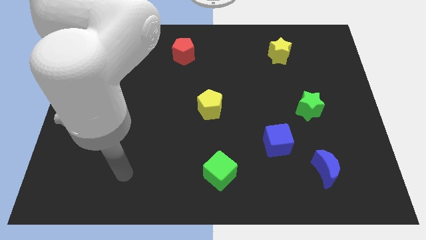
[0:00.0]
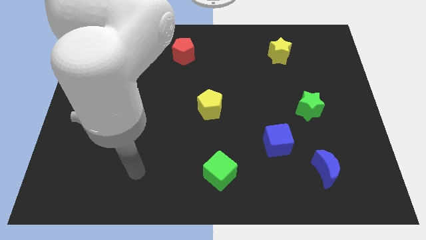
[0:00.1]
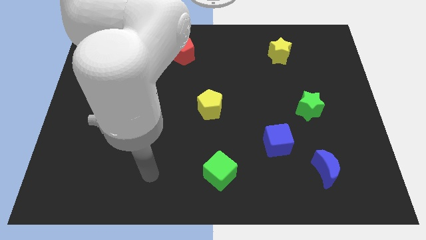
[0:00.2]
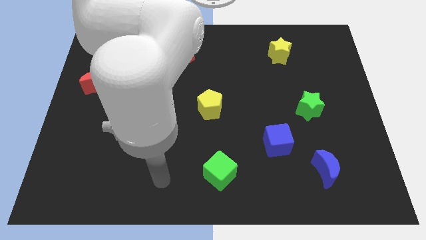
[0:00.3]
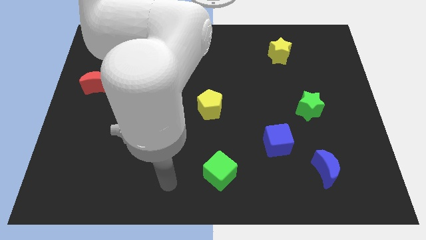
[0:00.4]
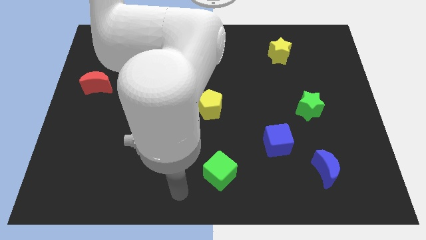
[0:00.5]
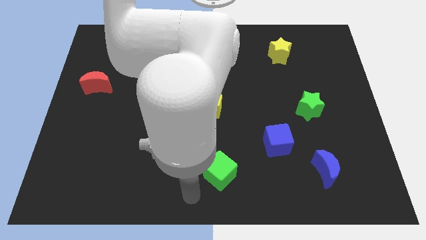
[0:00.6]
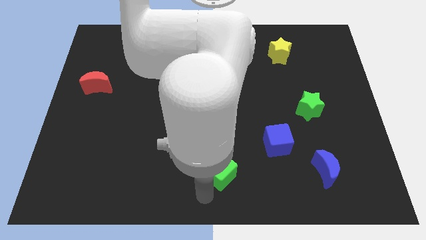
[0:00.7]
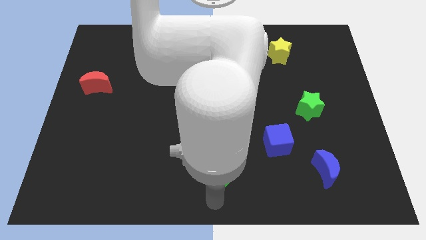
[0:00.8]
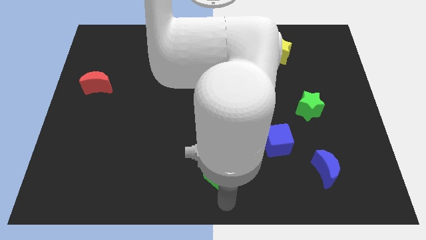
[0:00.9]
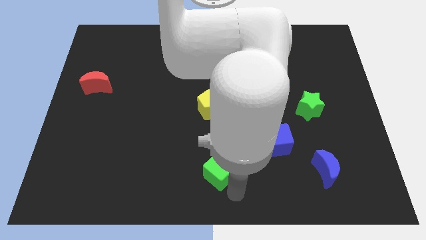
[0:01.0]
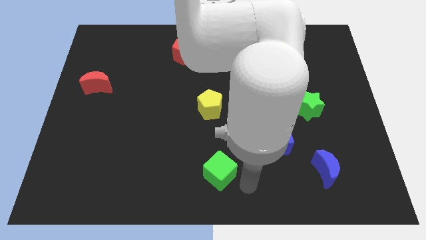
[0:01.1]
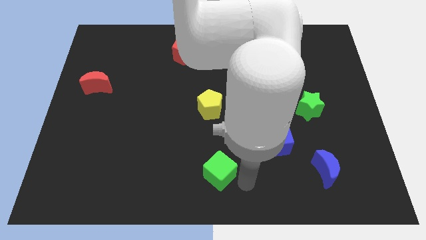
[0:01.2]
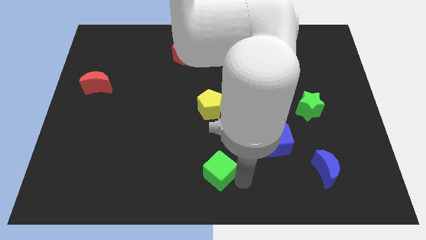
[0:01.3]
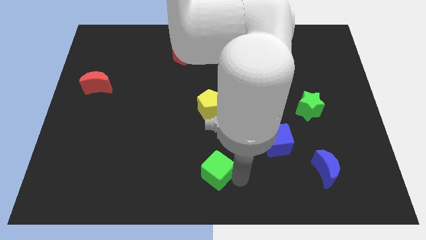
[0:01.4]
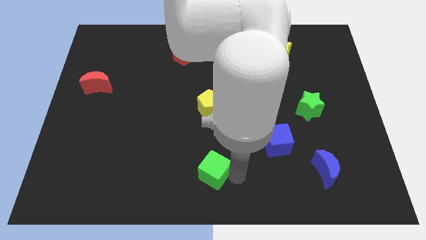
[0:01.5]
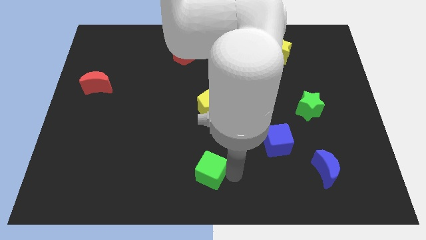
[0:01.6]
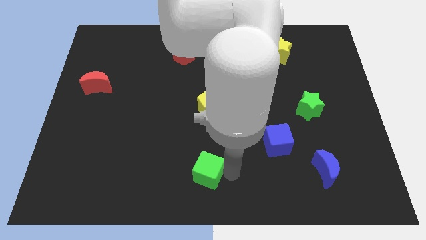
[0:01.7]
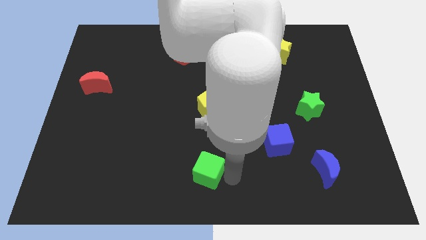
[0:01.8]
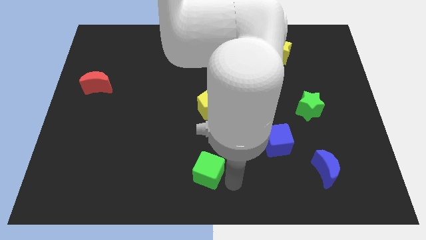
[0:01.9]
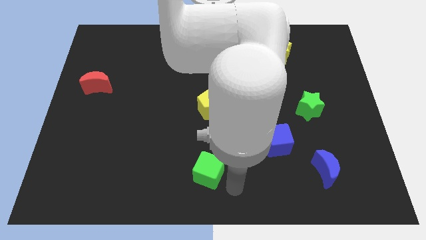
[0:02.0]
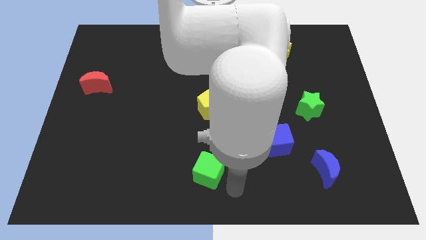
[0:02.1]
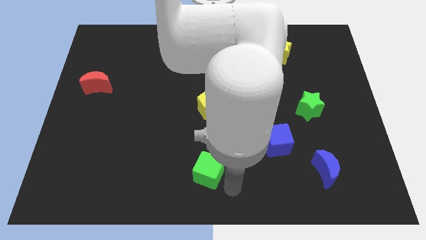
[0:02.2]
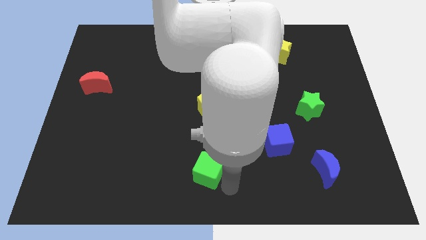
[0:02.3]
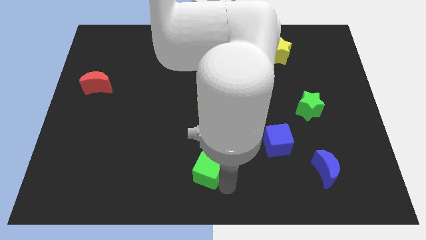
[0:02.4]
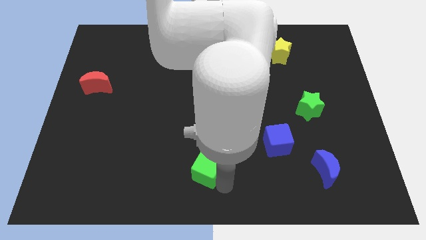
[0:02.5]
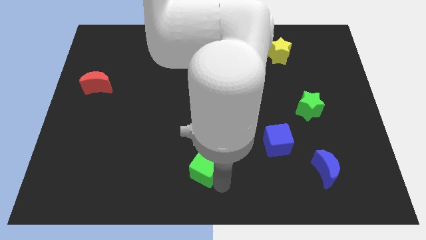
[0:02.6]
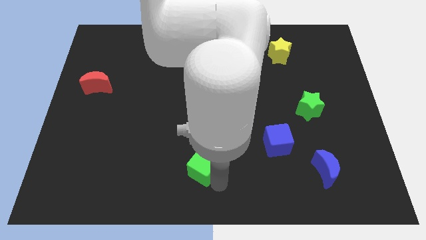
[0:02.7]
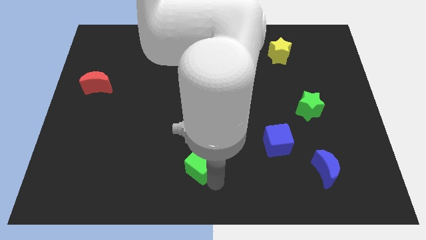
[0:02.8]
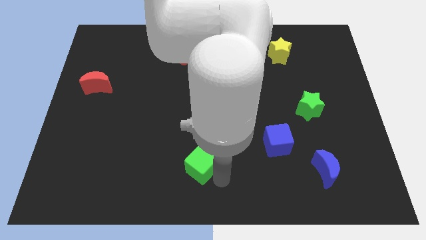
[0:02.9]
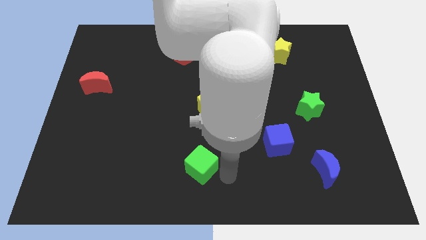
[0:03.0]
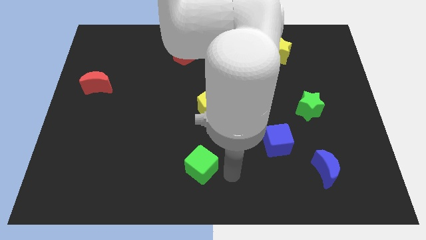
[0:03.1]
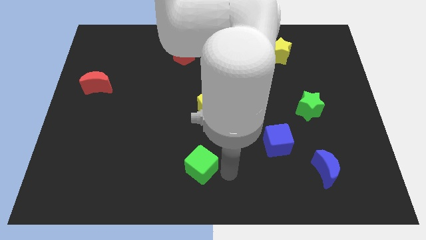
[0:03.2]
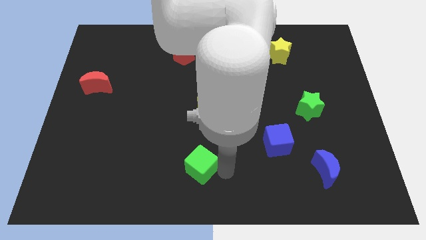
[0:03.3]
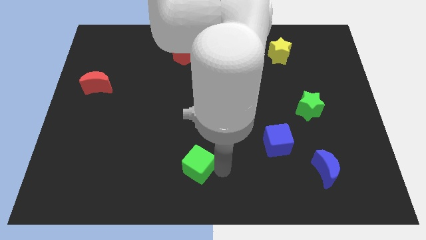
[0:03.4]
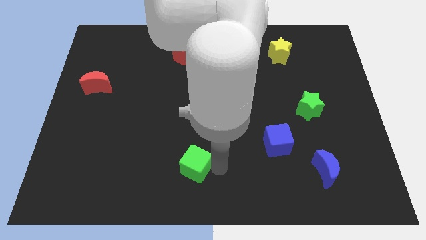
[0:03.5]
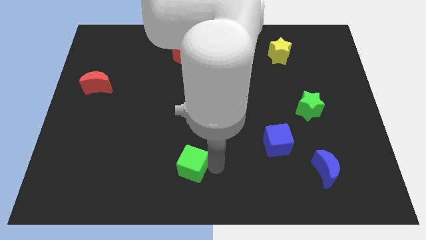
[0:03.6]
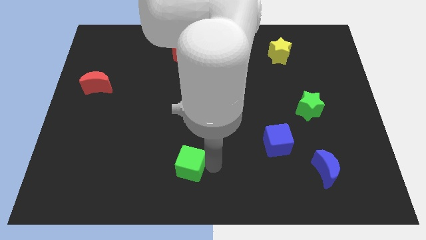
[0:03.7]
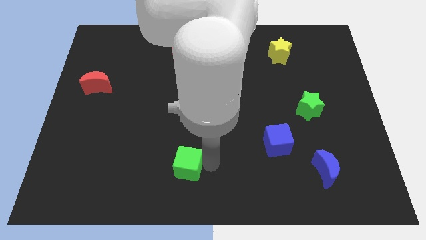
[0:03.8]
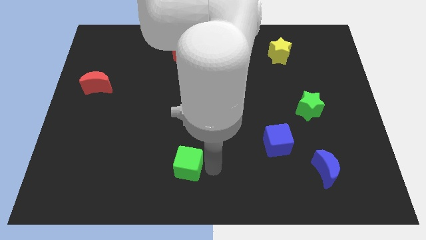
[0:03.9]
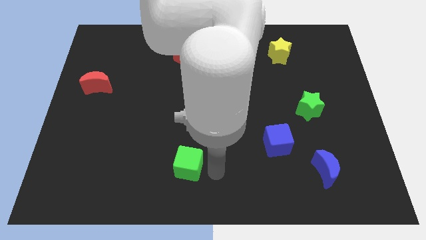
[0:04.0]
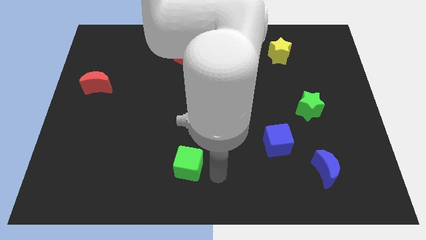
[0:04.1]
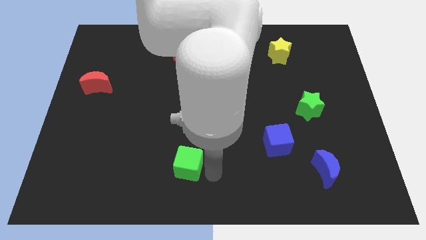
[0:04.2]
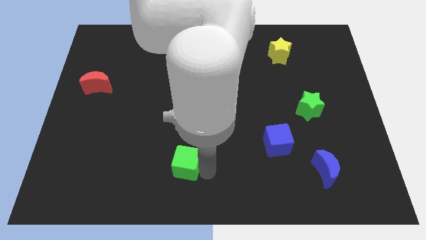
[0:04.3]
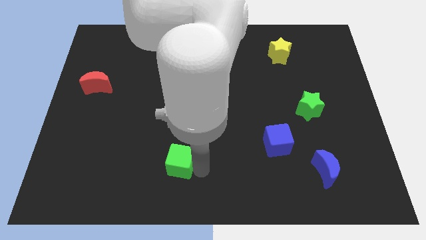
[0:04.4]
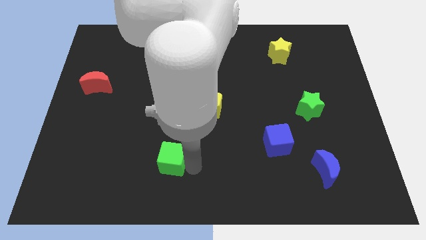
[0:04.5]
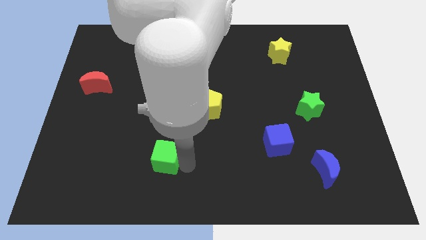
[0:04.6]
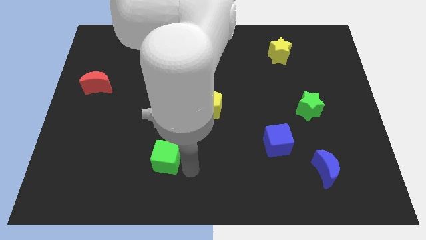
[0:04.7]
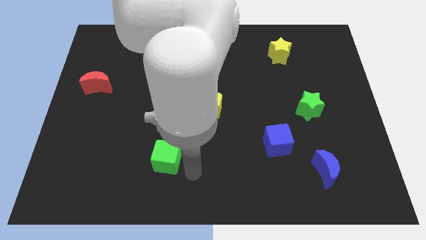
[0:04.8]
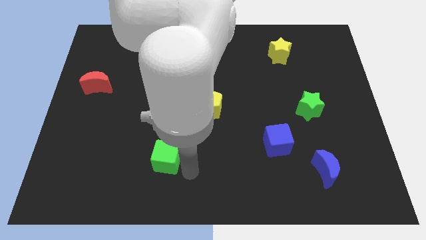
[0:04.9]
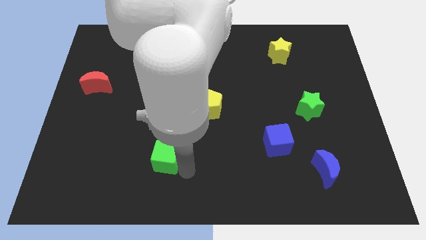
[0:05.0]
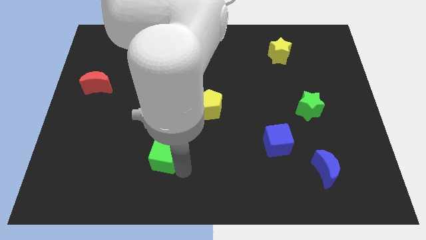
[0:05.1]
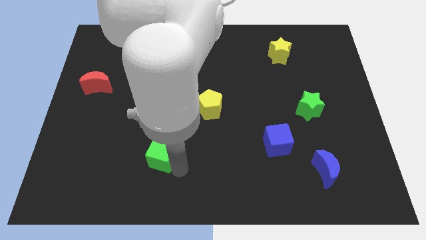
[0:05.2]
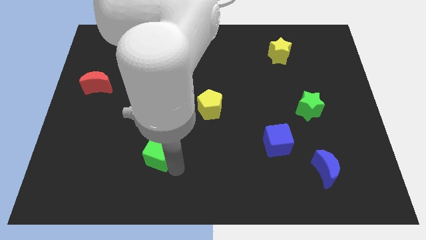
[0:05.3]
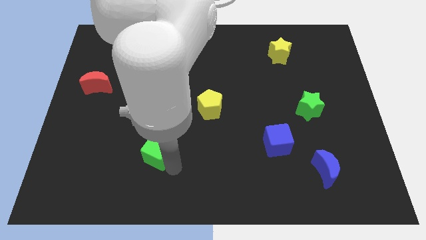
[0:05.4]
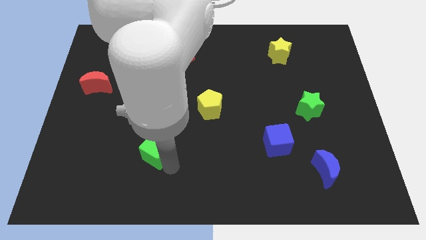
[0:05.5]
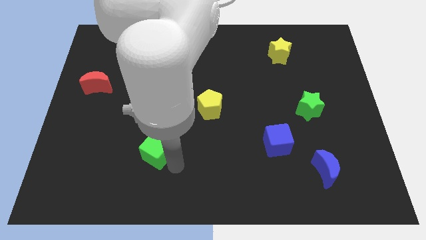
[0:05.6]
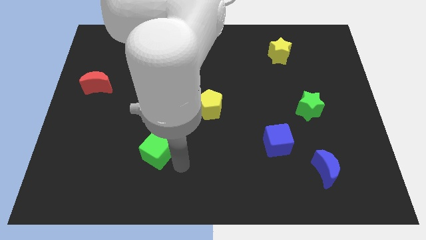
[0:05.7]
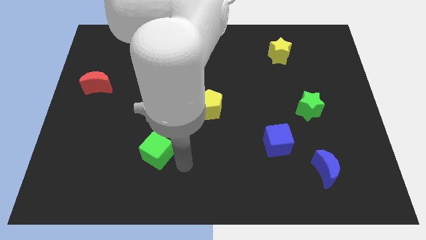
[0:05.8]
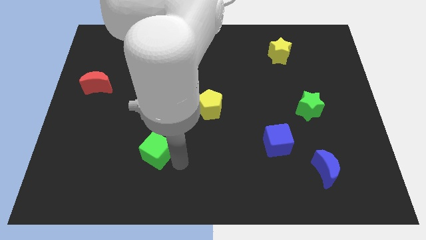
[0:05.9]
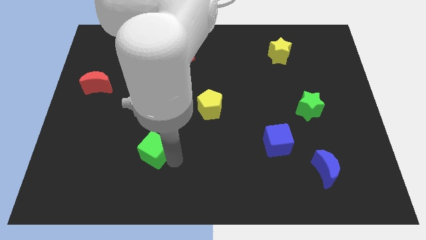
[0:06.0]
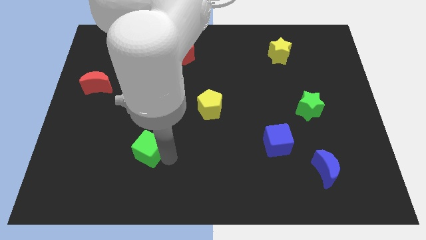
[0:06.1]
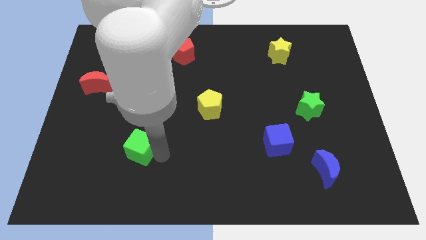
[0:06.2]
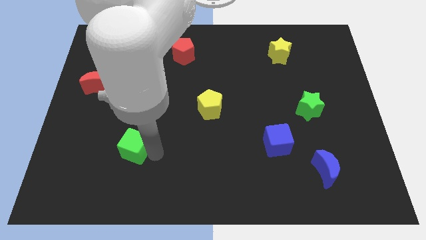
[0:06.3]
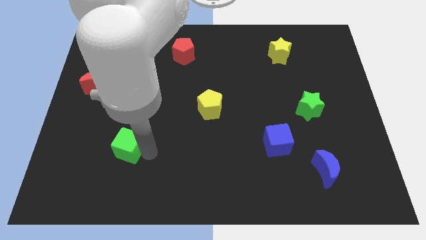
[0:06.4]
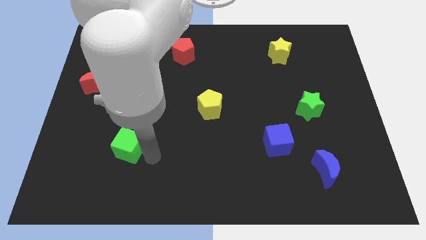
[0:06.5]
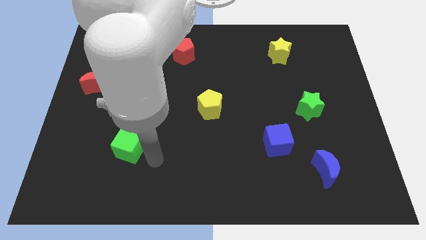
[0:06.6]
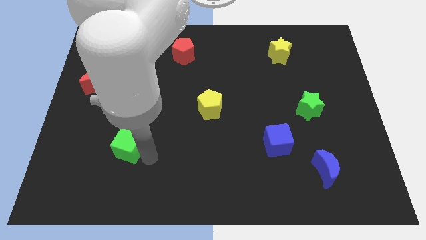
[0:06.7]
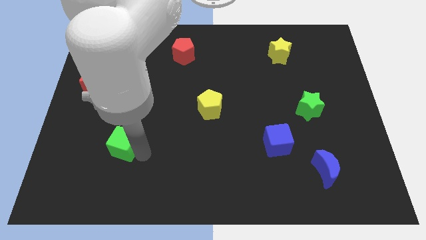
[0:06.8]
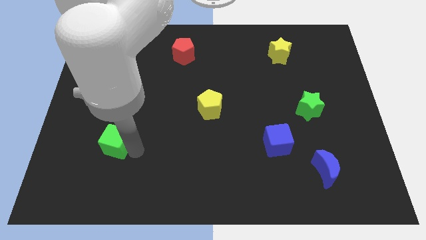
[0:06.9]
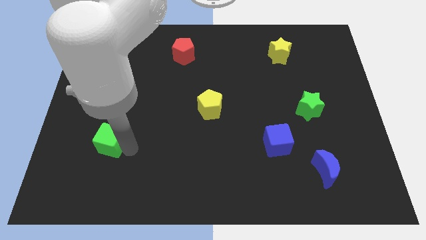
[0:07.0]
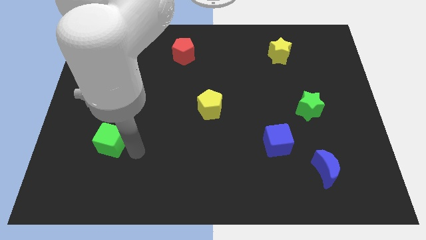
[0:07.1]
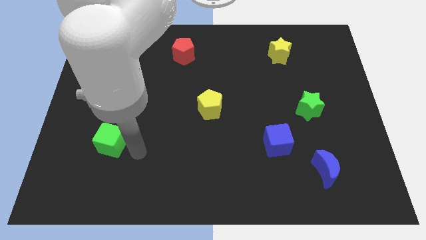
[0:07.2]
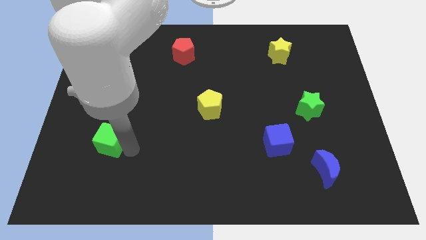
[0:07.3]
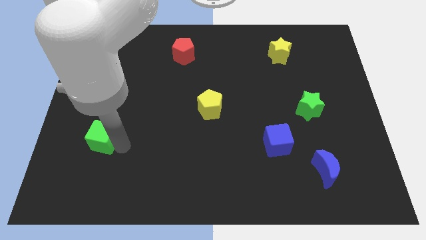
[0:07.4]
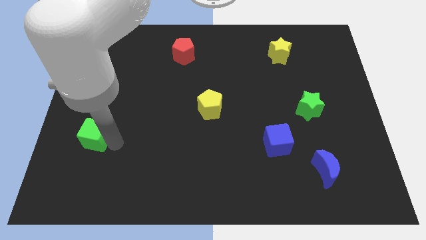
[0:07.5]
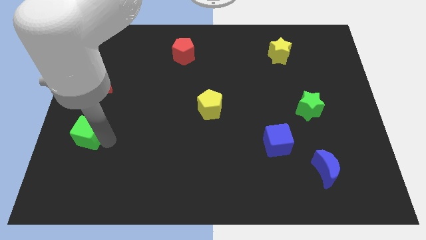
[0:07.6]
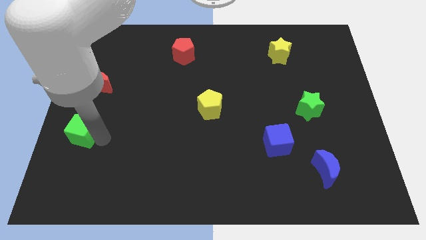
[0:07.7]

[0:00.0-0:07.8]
push the green cube to the left side of the board
